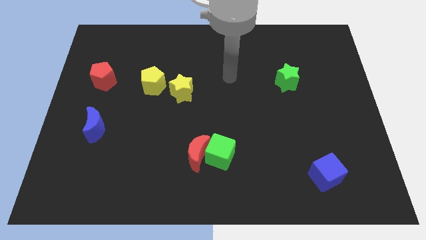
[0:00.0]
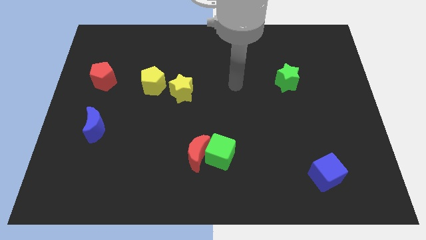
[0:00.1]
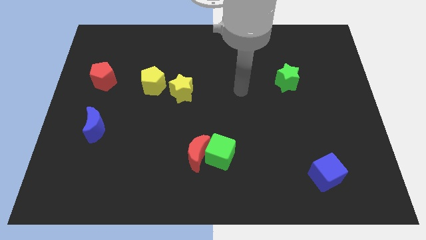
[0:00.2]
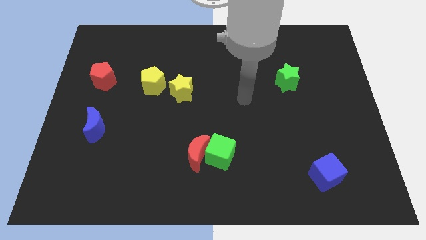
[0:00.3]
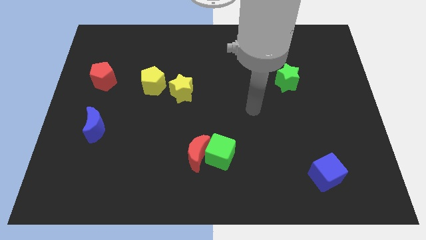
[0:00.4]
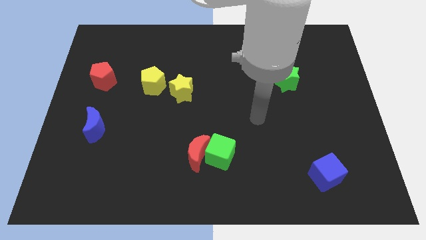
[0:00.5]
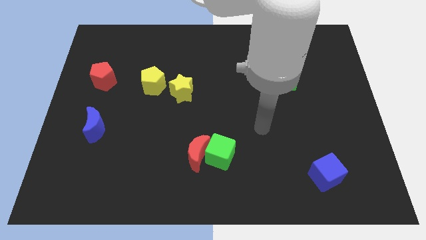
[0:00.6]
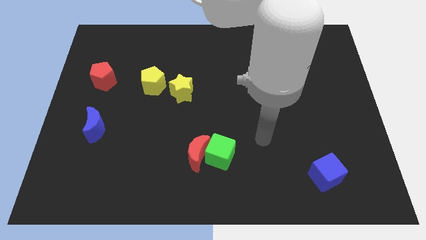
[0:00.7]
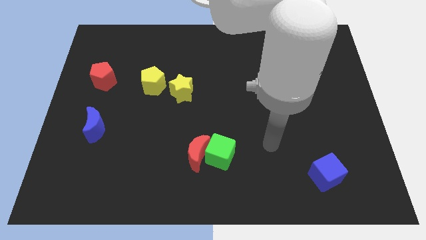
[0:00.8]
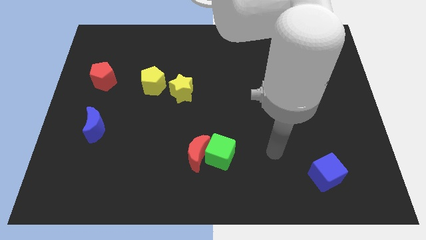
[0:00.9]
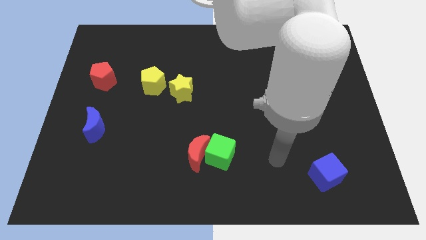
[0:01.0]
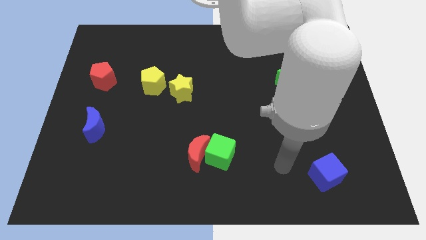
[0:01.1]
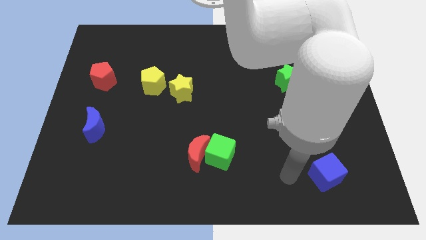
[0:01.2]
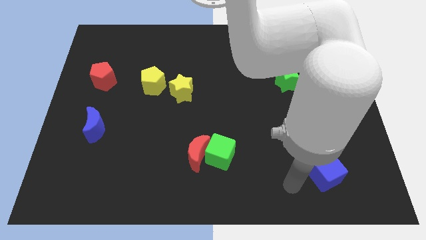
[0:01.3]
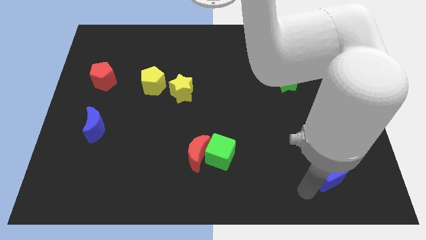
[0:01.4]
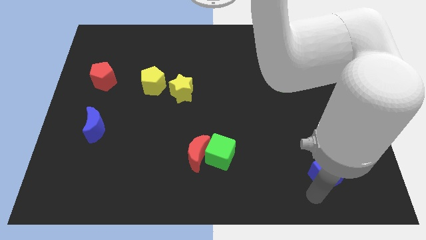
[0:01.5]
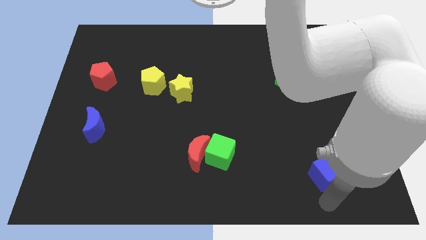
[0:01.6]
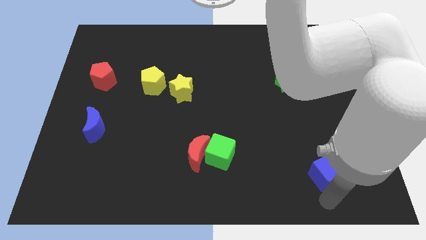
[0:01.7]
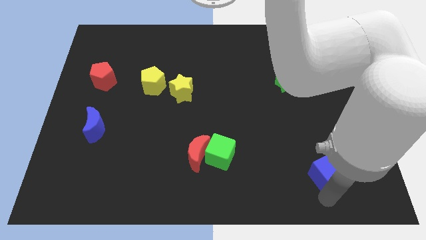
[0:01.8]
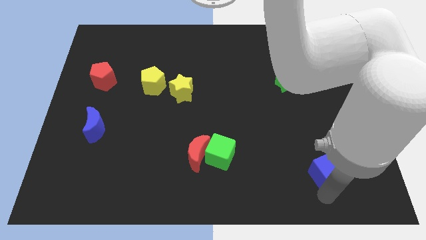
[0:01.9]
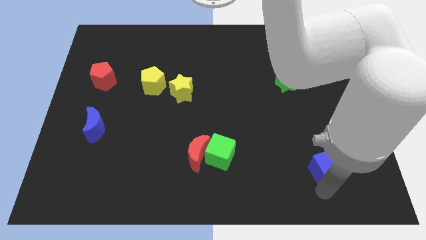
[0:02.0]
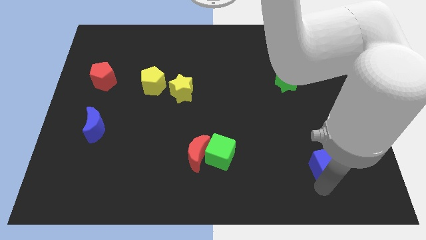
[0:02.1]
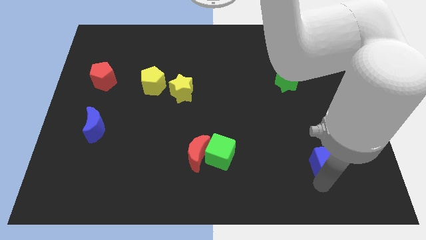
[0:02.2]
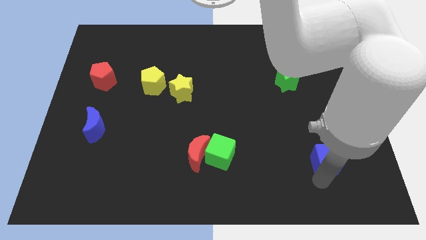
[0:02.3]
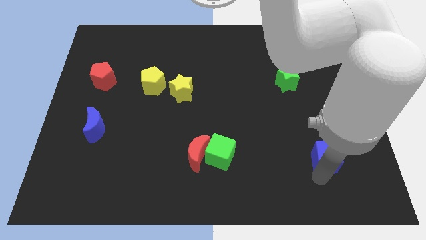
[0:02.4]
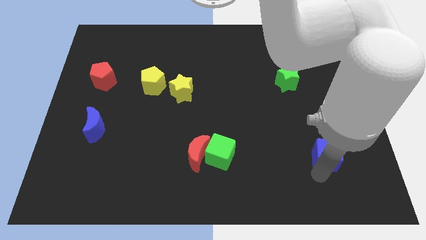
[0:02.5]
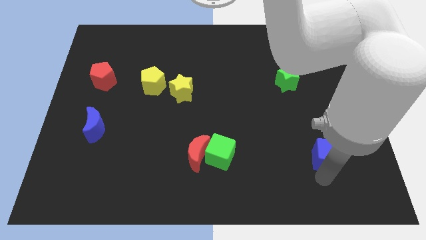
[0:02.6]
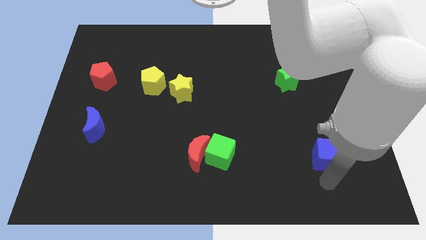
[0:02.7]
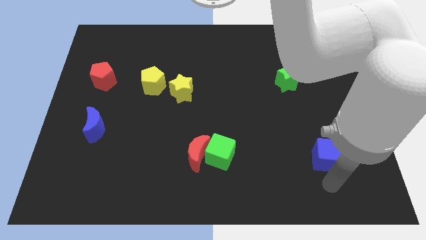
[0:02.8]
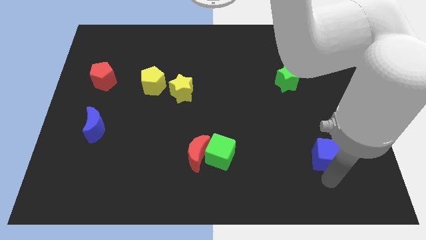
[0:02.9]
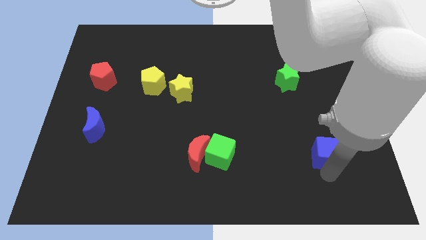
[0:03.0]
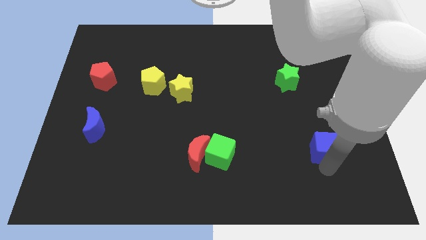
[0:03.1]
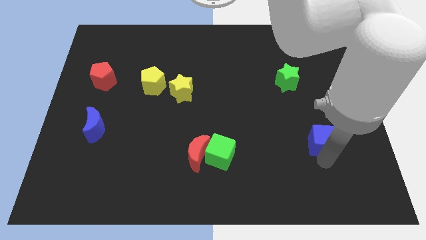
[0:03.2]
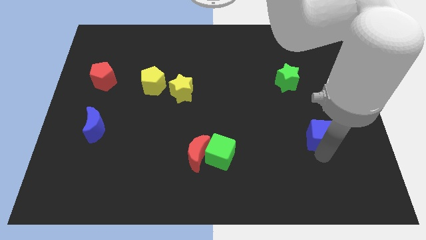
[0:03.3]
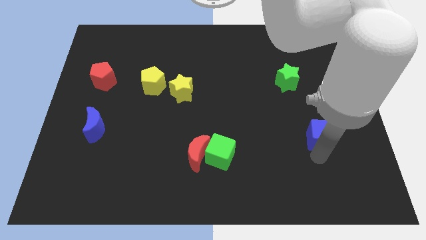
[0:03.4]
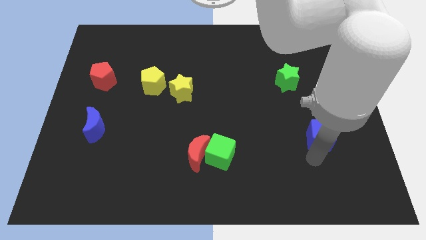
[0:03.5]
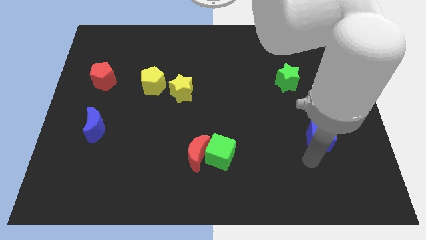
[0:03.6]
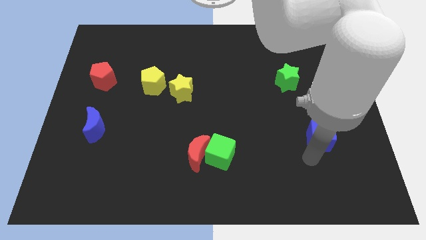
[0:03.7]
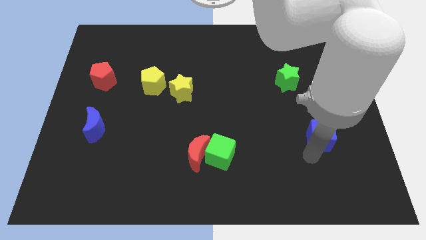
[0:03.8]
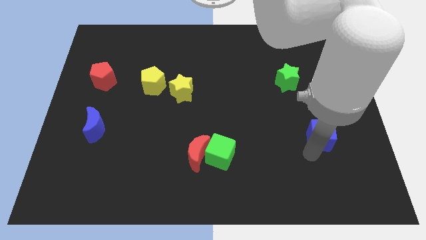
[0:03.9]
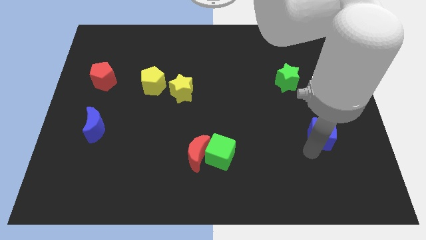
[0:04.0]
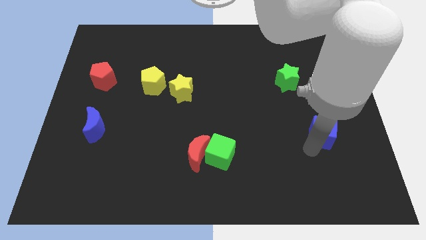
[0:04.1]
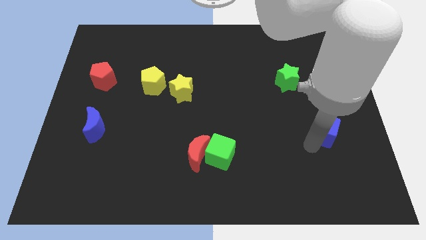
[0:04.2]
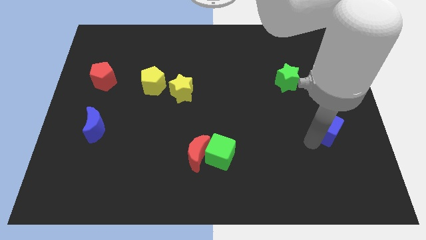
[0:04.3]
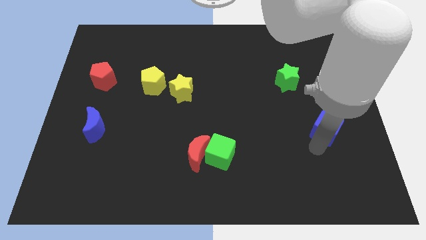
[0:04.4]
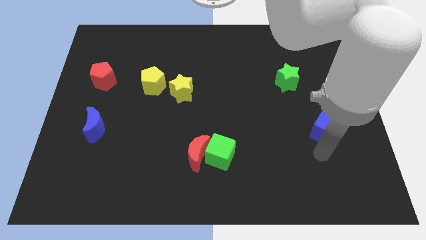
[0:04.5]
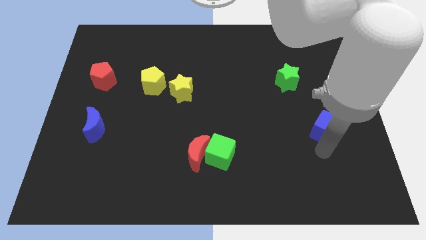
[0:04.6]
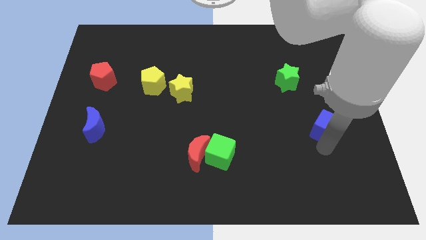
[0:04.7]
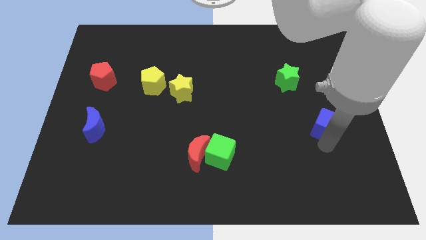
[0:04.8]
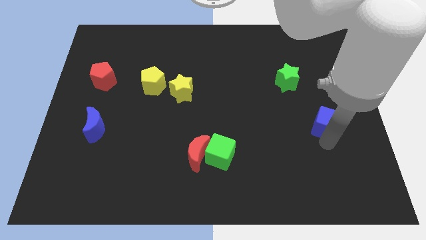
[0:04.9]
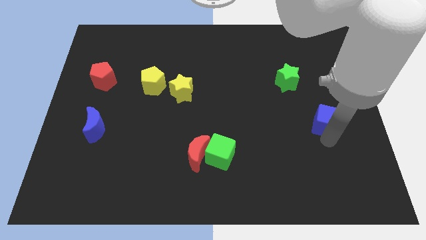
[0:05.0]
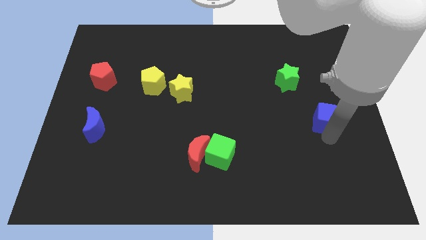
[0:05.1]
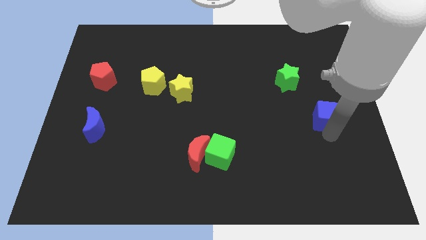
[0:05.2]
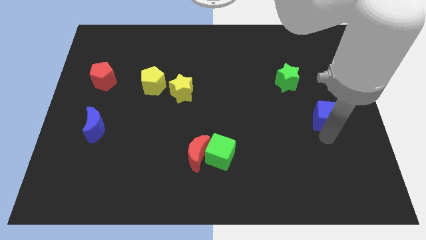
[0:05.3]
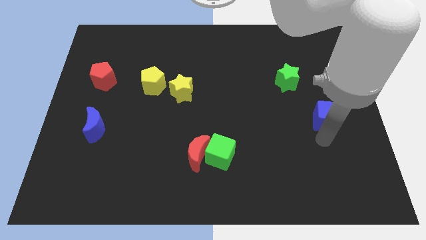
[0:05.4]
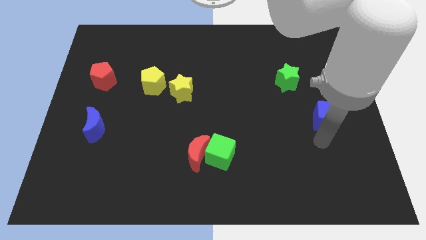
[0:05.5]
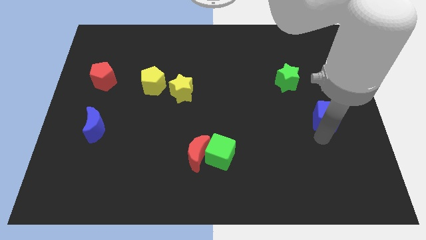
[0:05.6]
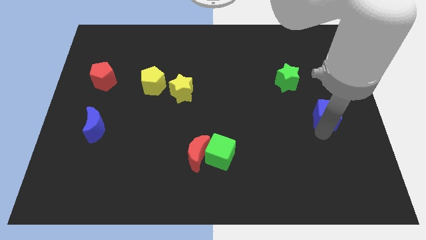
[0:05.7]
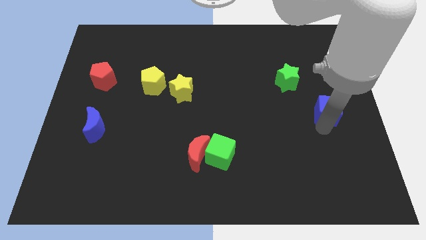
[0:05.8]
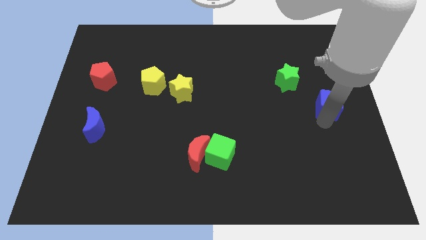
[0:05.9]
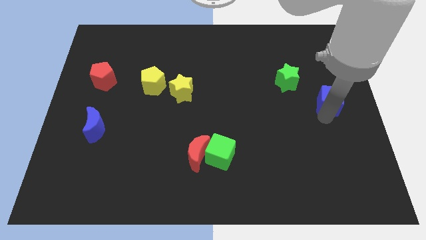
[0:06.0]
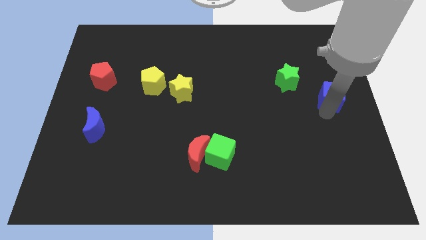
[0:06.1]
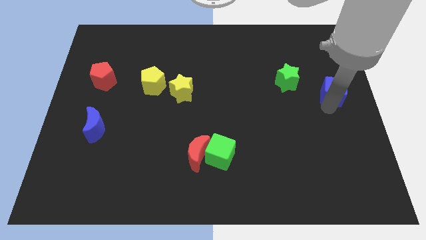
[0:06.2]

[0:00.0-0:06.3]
slide the blue cube just right of the green star
